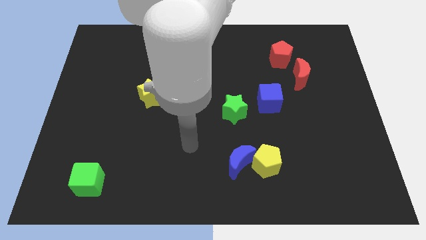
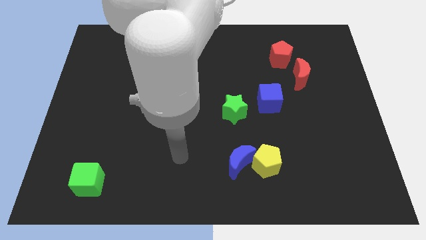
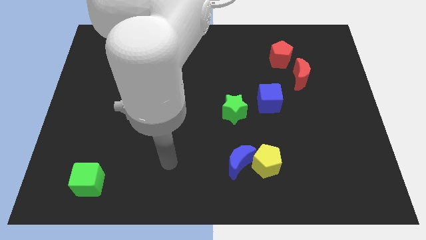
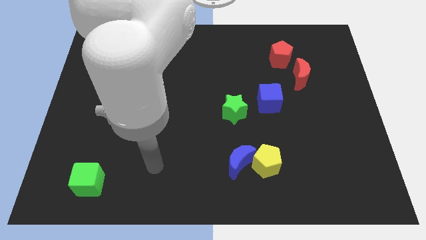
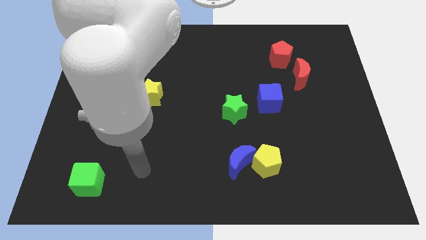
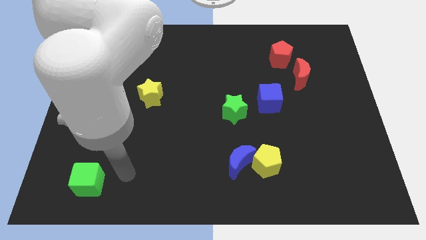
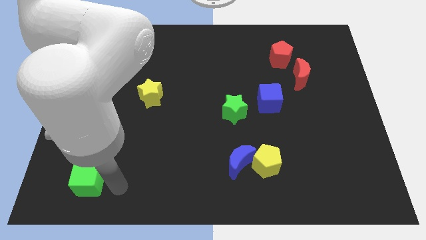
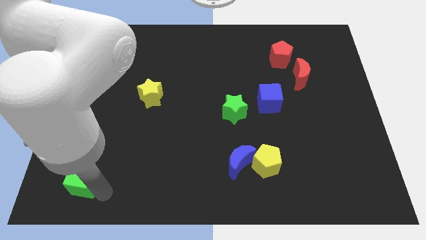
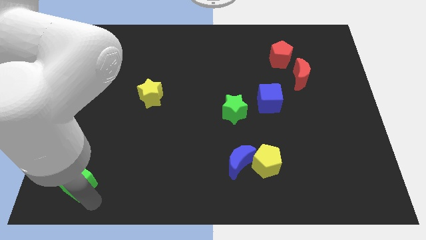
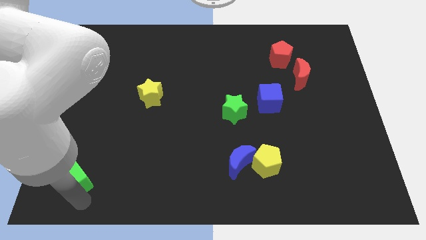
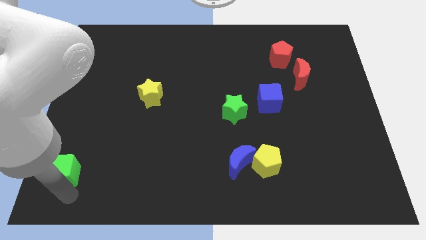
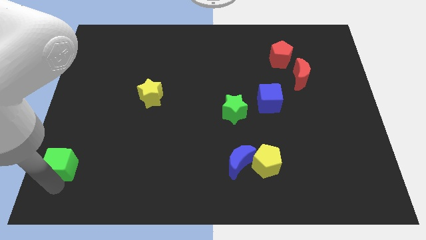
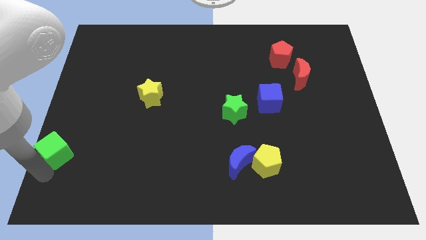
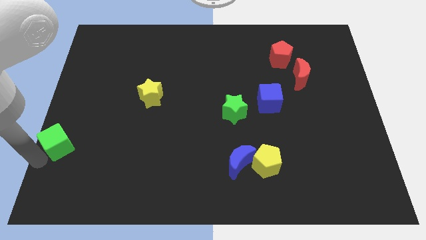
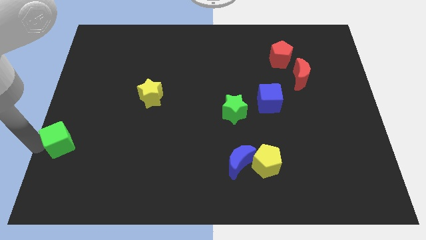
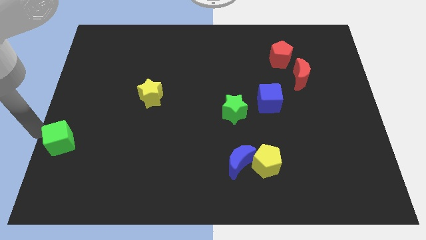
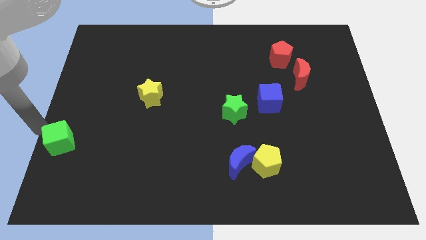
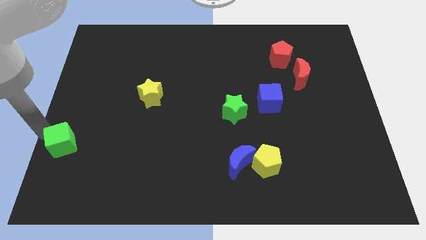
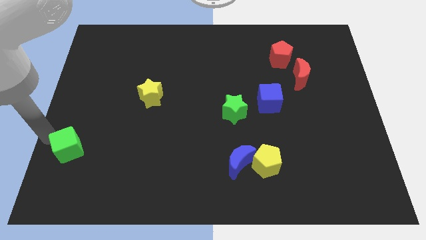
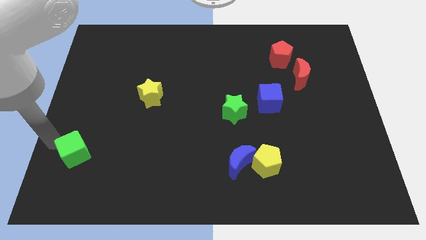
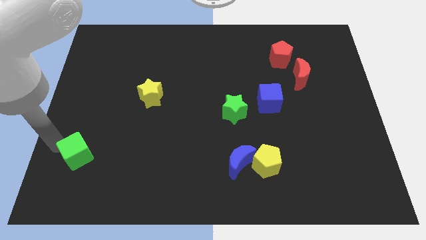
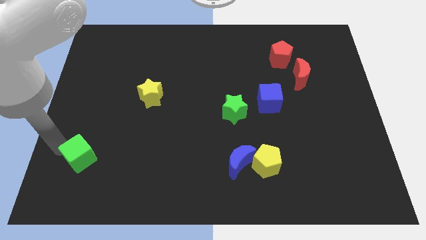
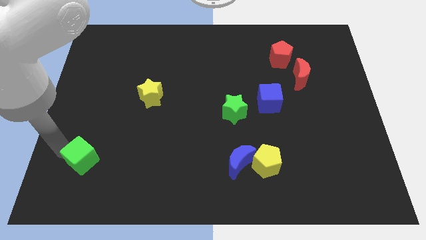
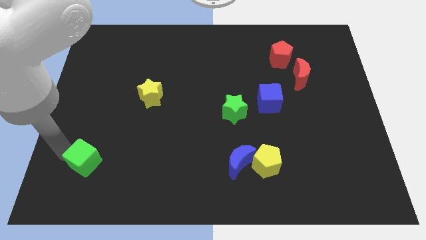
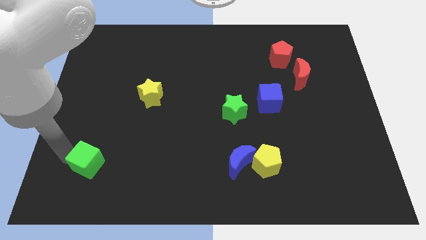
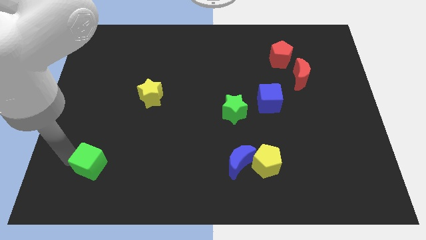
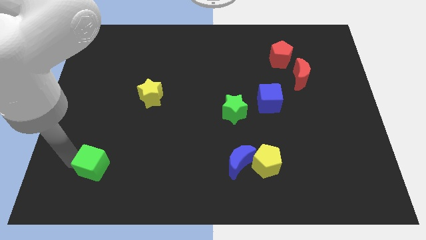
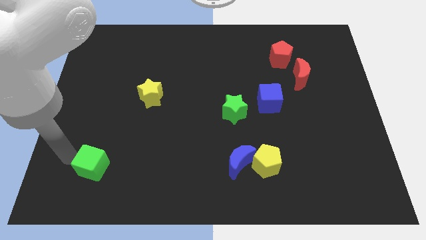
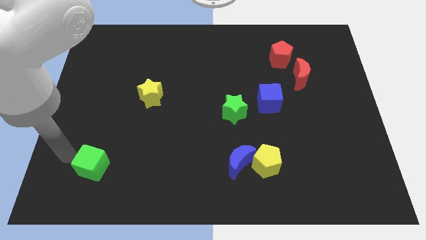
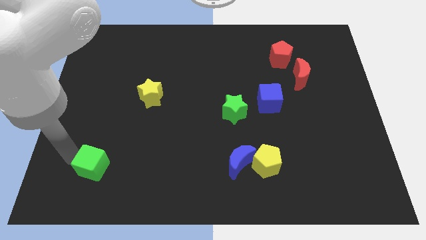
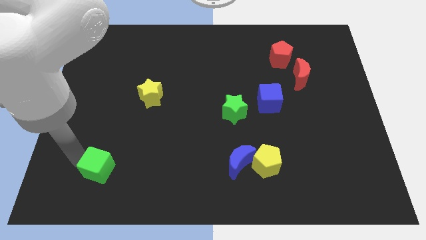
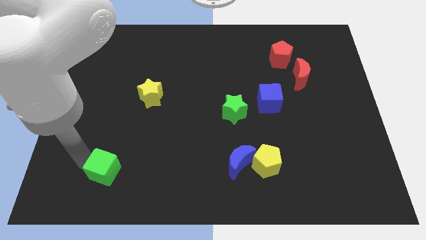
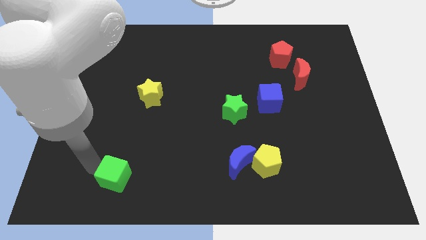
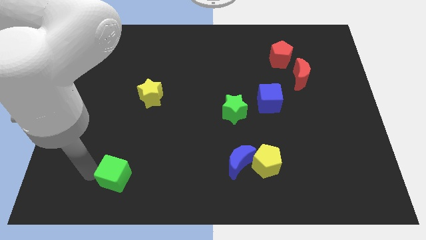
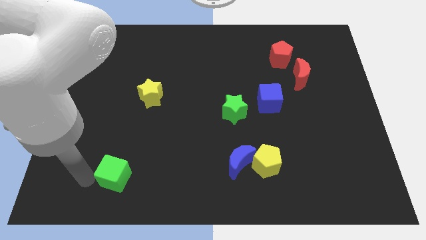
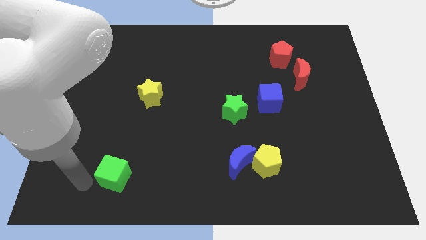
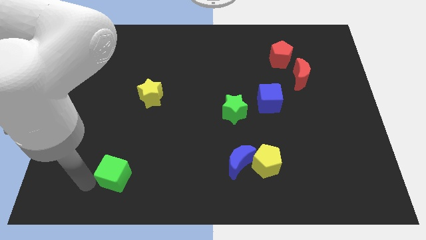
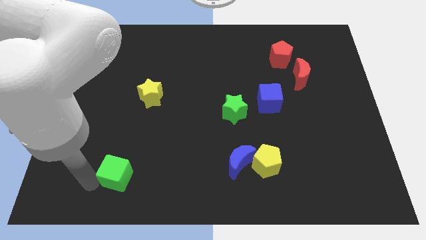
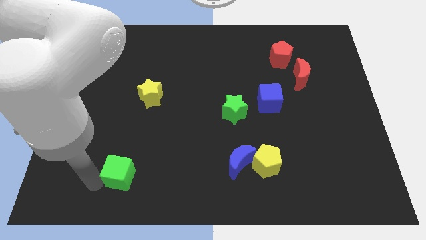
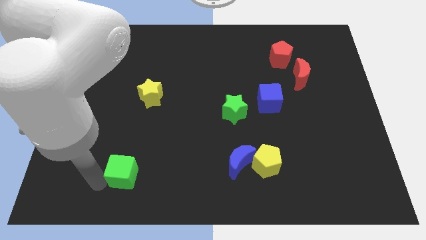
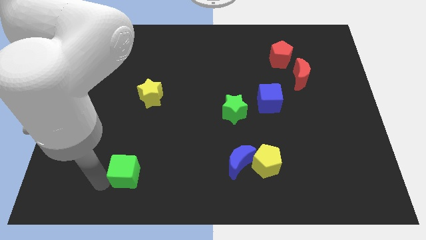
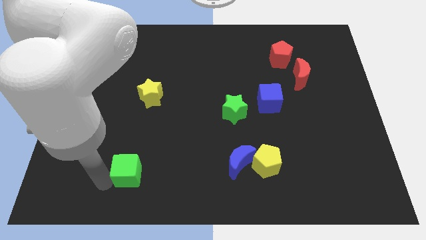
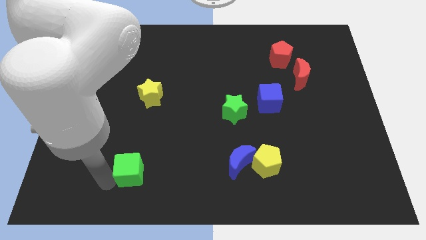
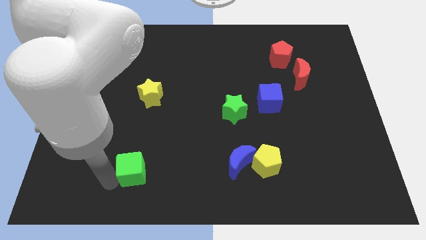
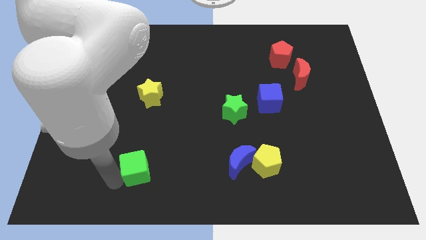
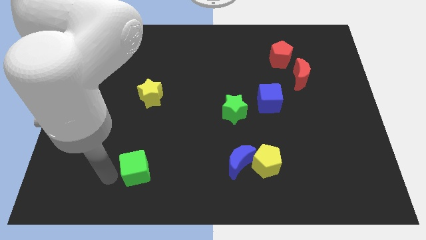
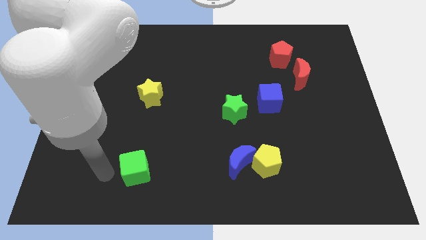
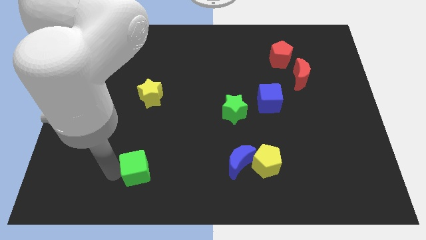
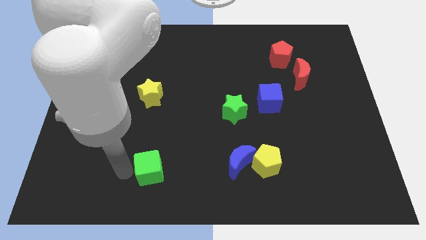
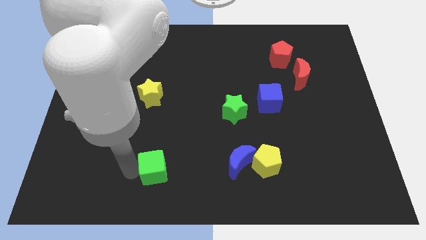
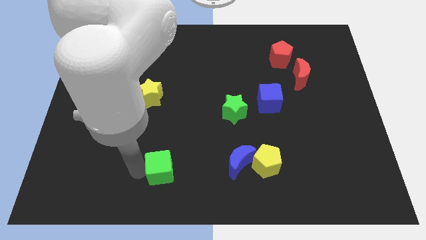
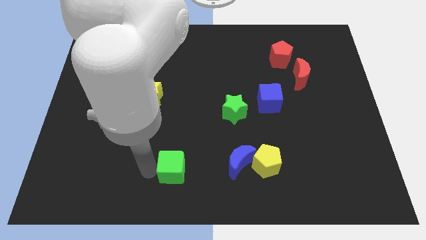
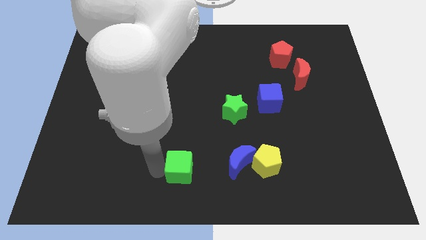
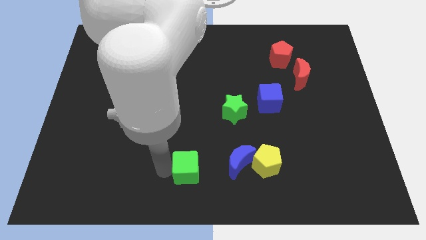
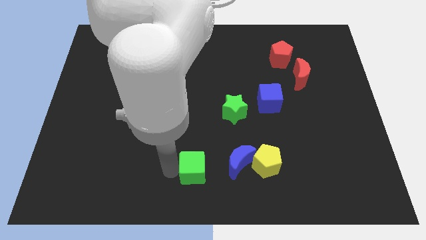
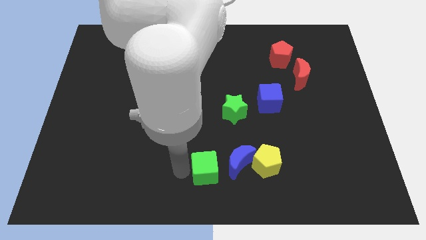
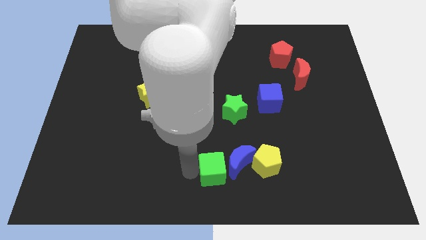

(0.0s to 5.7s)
put the green cube towards the blue moon

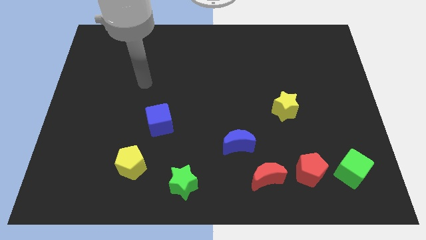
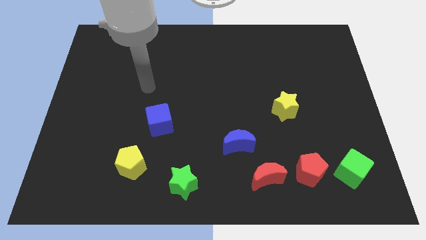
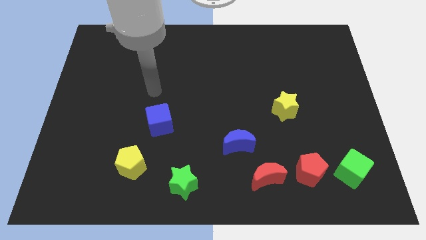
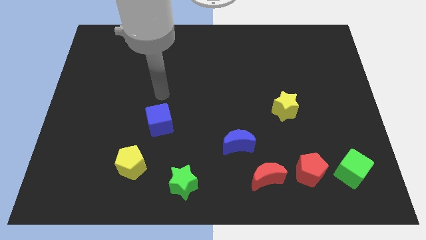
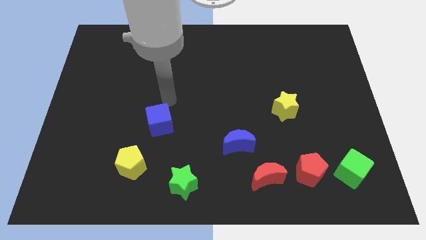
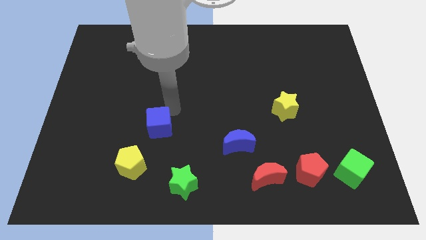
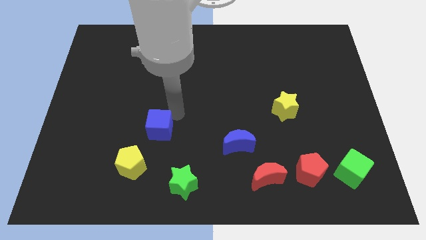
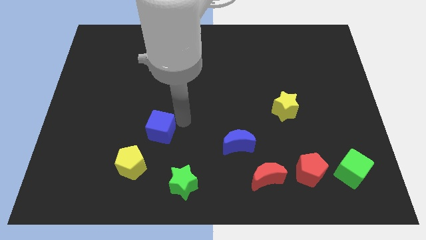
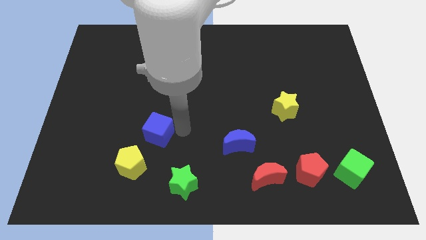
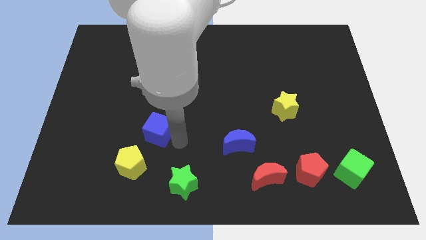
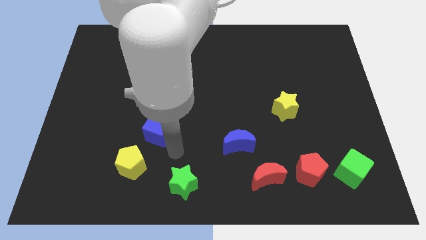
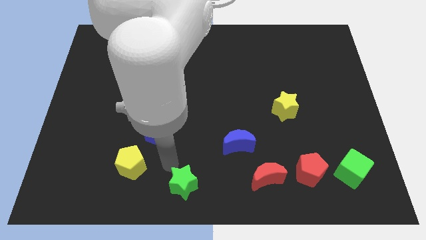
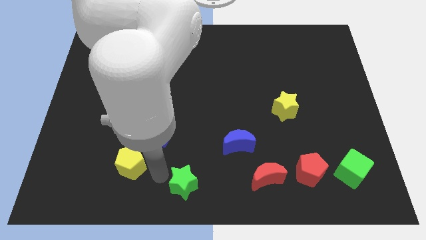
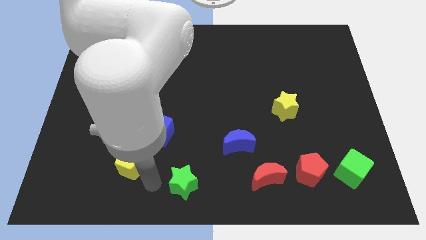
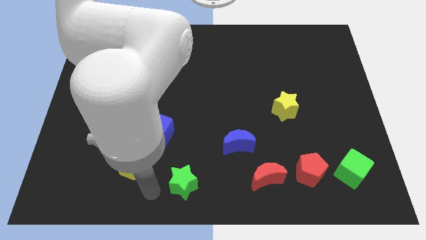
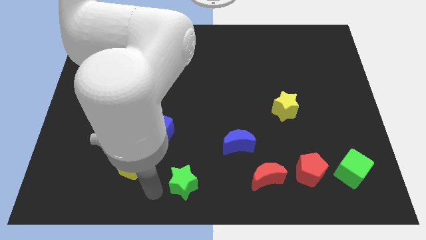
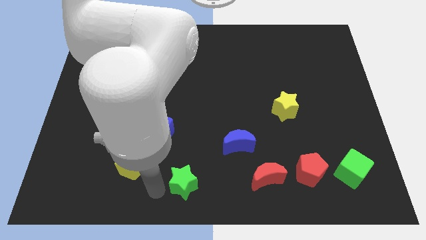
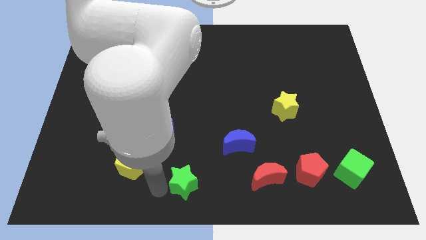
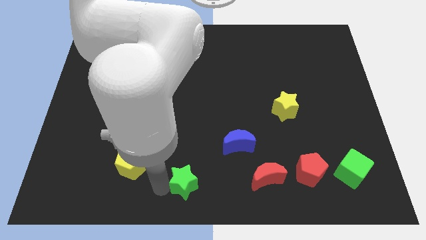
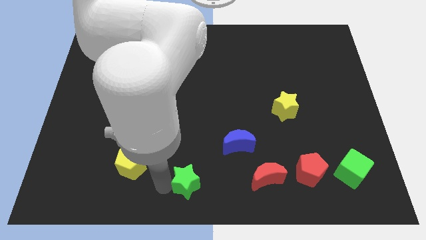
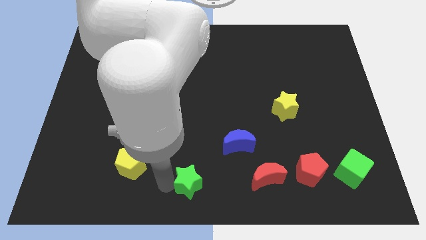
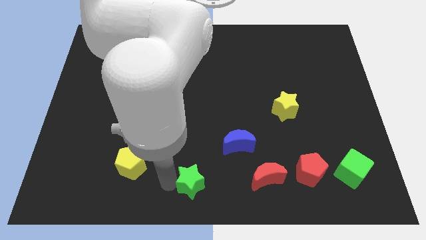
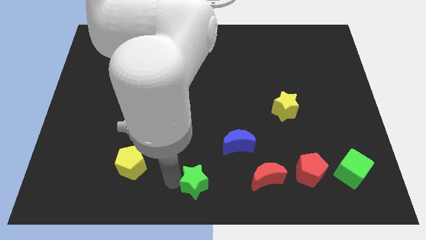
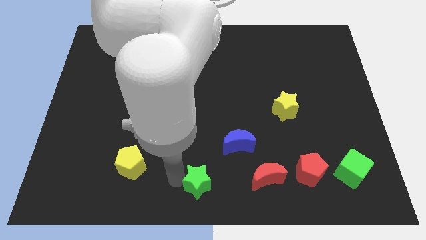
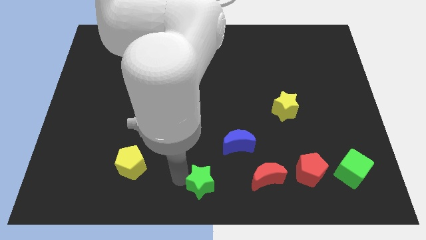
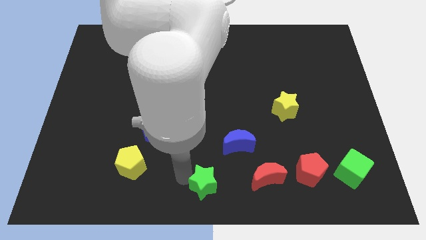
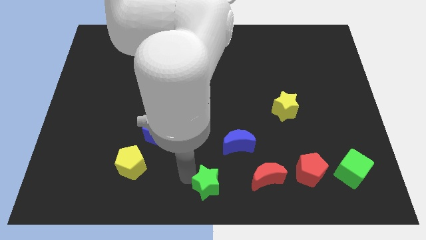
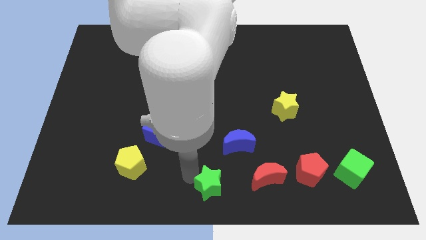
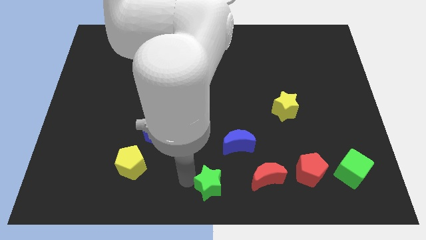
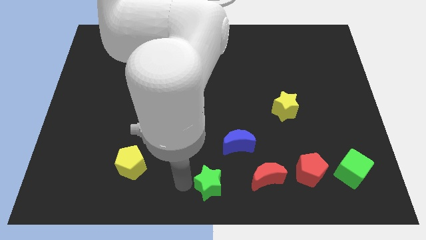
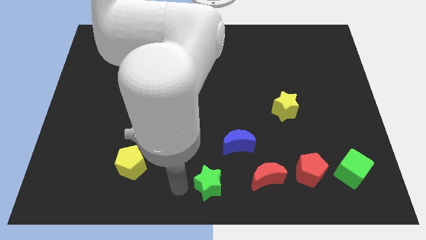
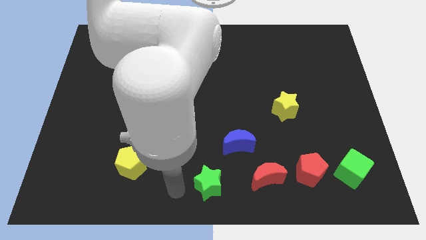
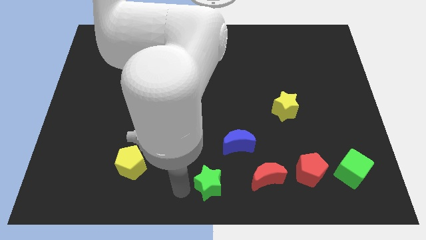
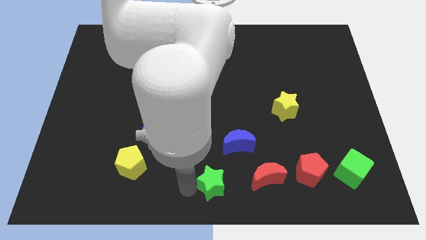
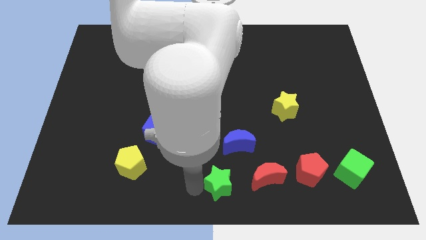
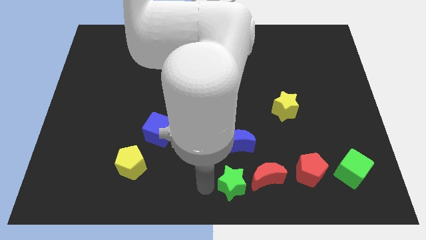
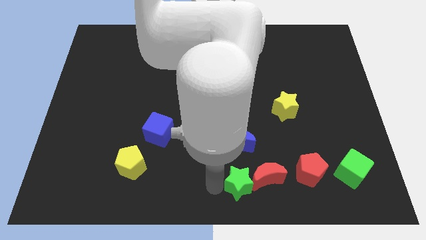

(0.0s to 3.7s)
move the green star close to the red moon
